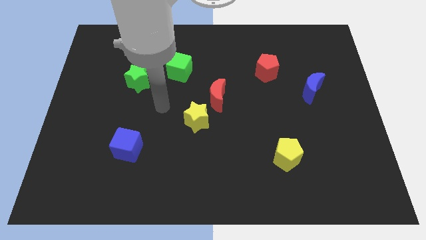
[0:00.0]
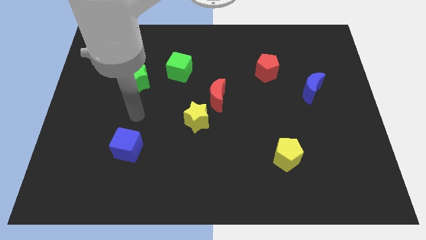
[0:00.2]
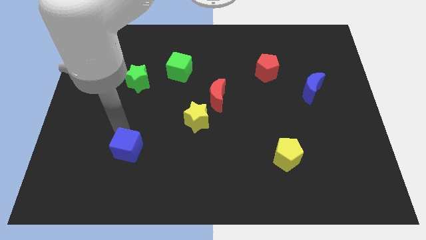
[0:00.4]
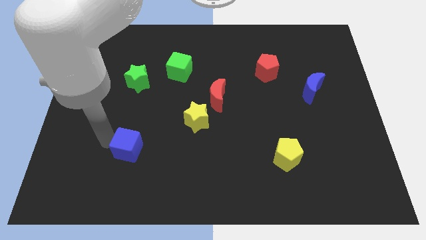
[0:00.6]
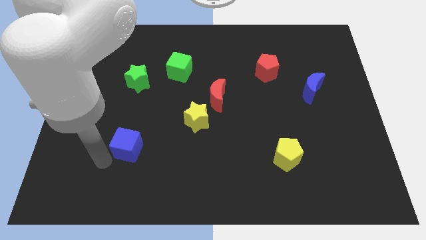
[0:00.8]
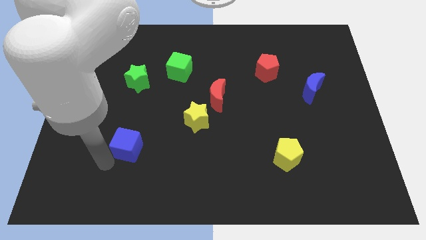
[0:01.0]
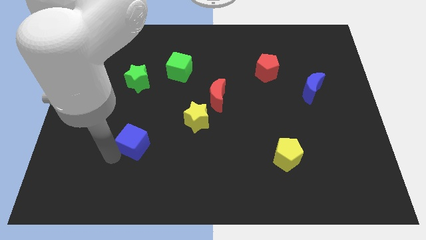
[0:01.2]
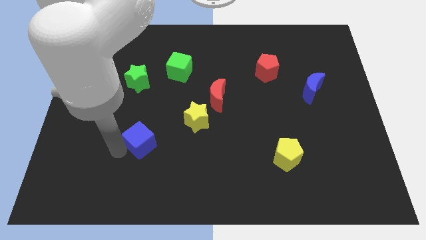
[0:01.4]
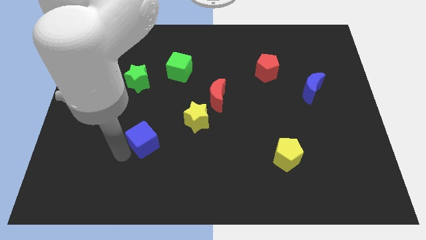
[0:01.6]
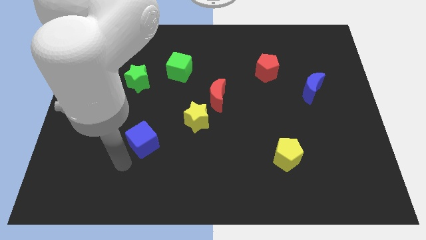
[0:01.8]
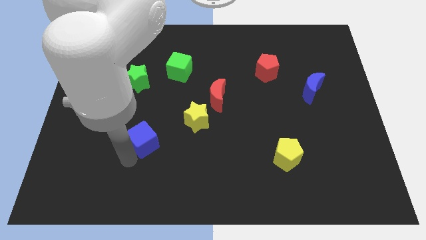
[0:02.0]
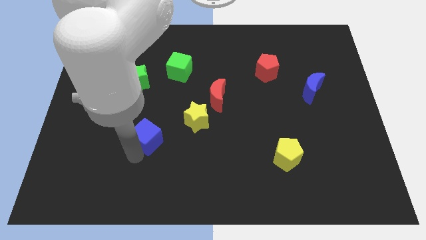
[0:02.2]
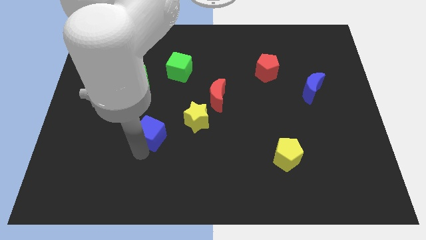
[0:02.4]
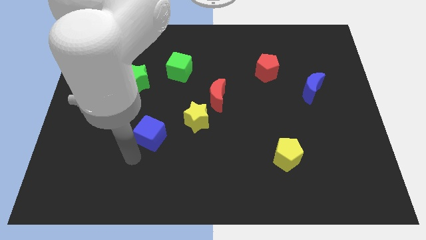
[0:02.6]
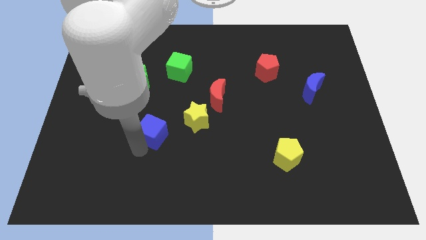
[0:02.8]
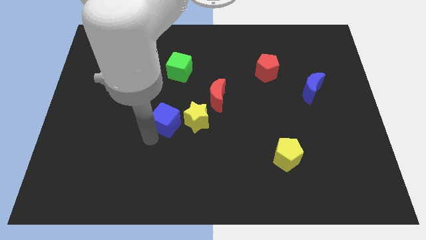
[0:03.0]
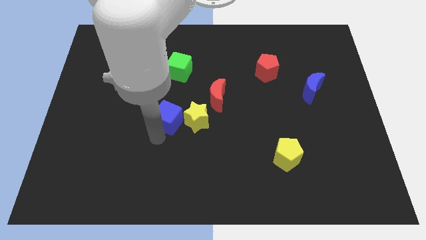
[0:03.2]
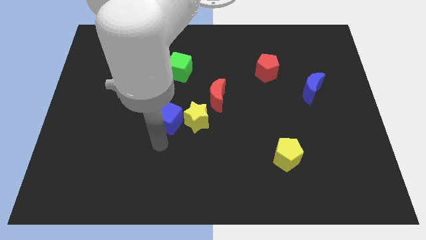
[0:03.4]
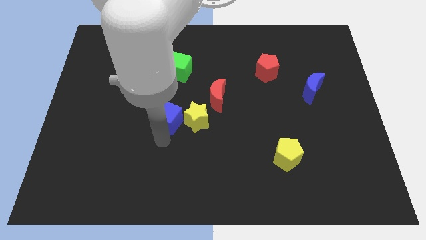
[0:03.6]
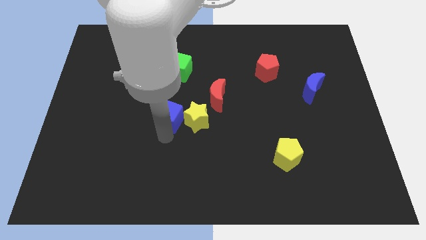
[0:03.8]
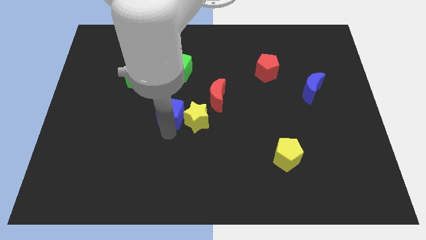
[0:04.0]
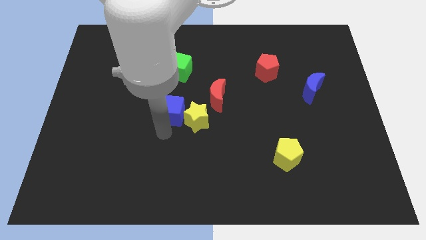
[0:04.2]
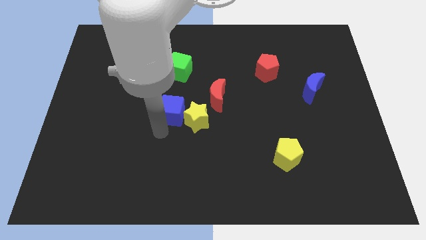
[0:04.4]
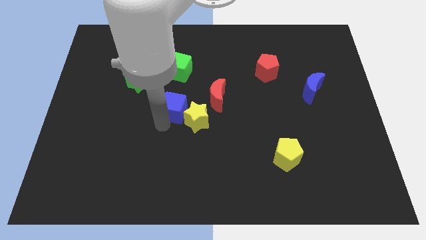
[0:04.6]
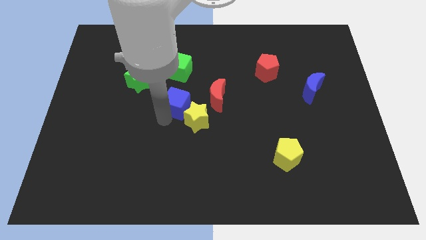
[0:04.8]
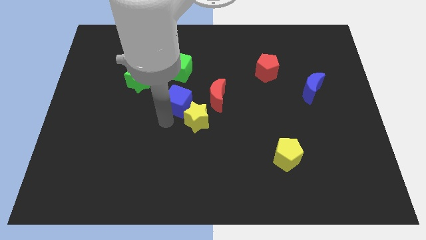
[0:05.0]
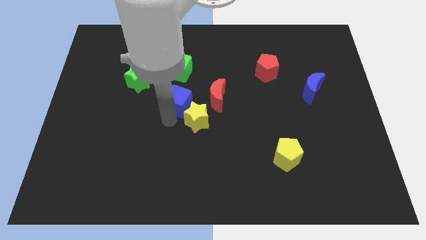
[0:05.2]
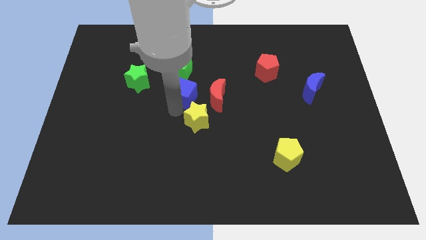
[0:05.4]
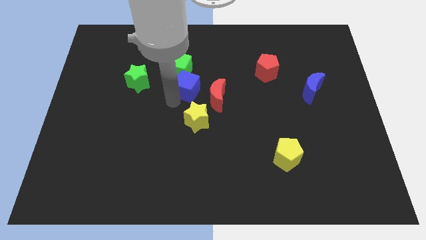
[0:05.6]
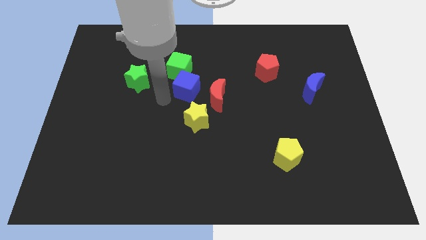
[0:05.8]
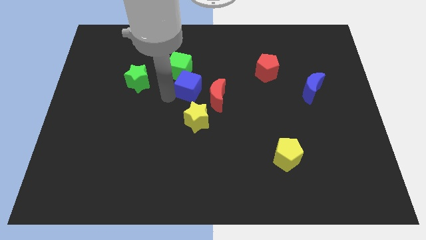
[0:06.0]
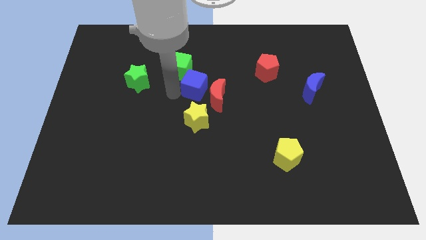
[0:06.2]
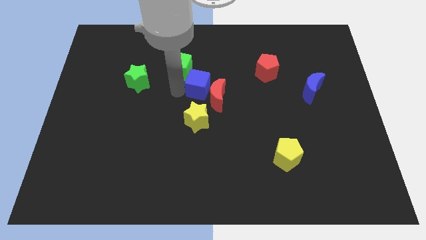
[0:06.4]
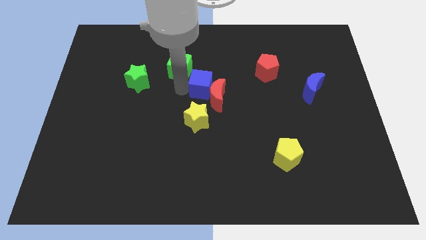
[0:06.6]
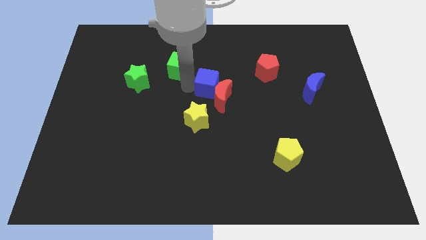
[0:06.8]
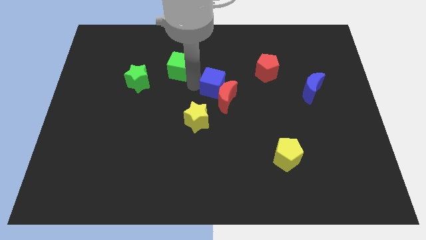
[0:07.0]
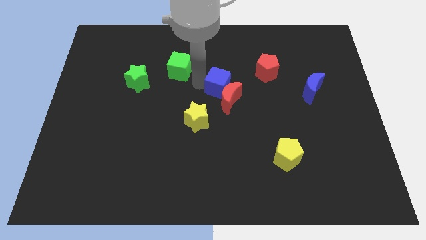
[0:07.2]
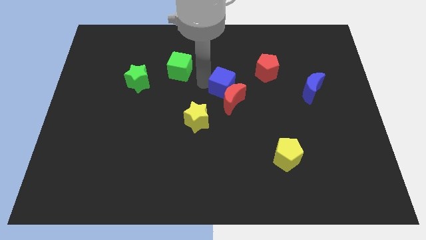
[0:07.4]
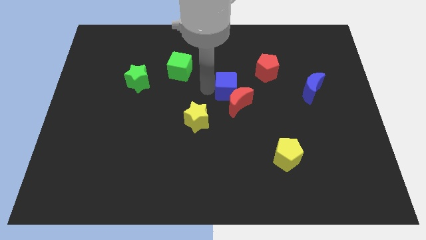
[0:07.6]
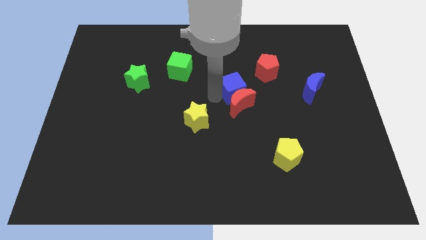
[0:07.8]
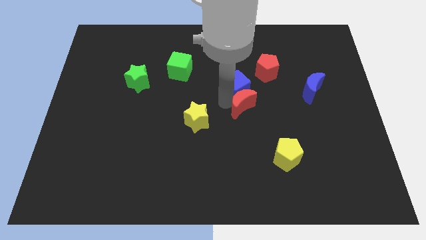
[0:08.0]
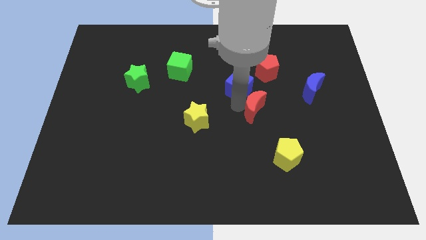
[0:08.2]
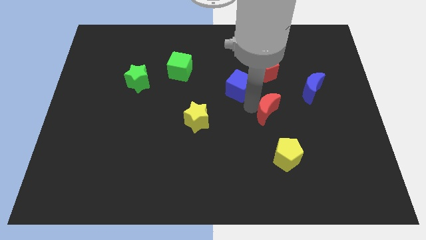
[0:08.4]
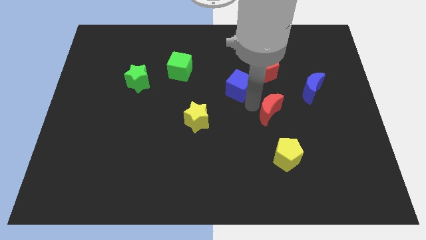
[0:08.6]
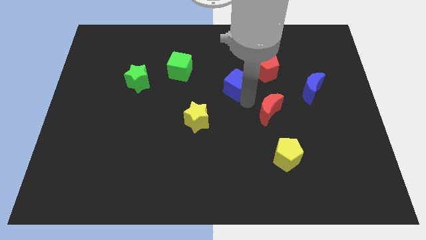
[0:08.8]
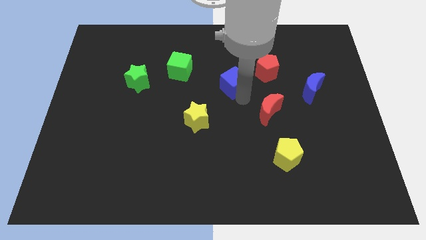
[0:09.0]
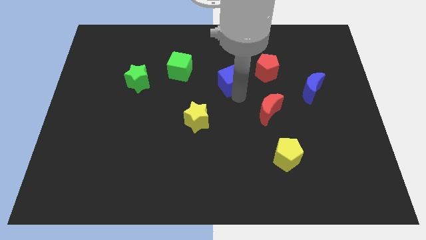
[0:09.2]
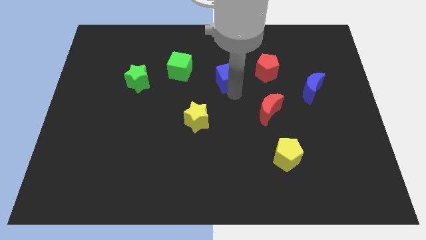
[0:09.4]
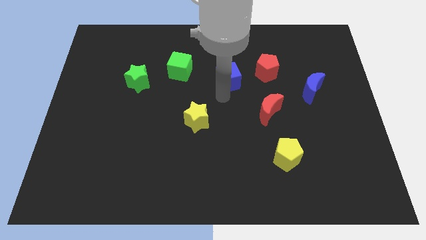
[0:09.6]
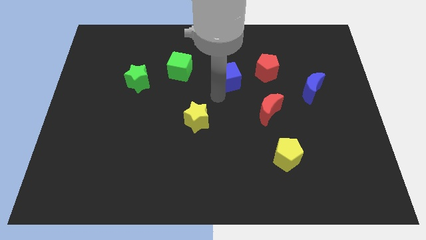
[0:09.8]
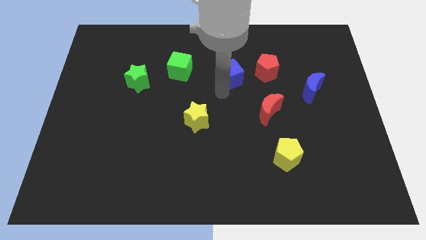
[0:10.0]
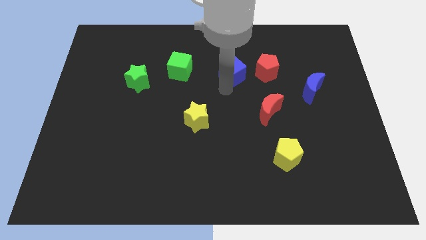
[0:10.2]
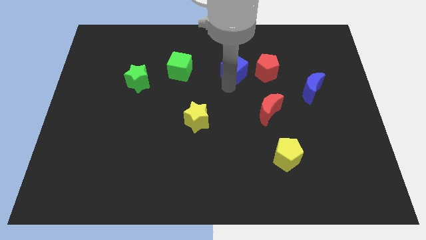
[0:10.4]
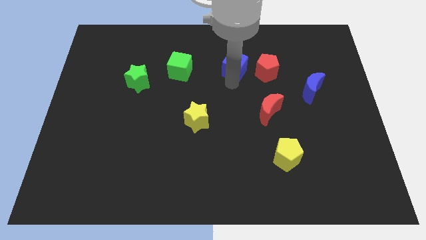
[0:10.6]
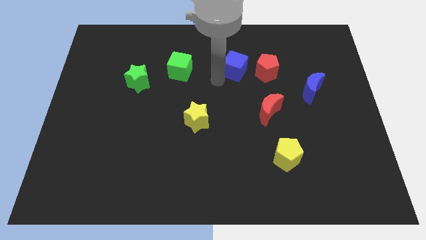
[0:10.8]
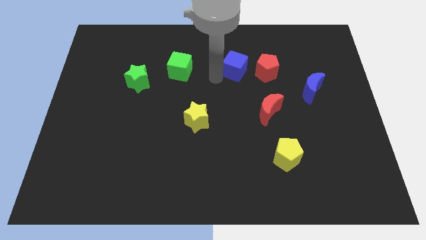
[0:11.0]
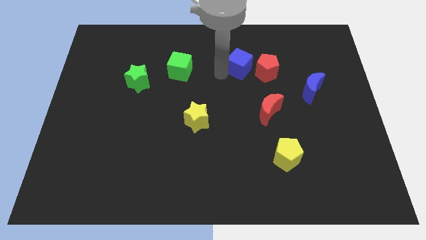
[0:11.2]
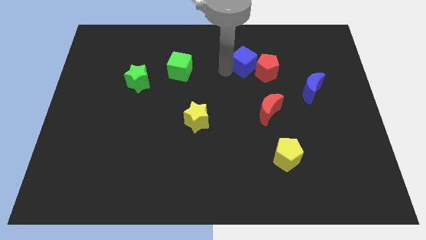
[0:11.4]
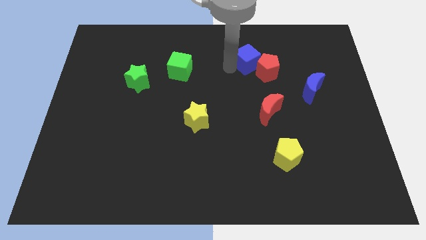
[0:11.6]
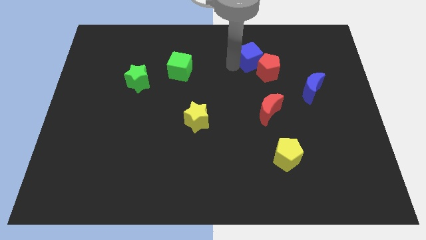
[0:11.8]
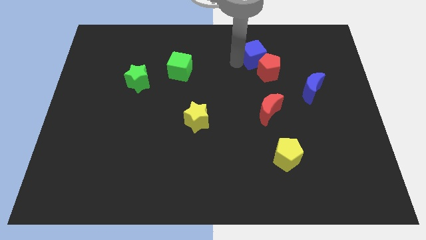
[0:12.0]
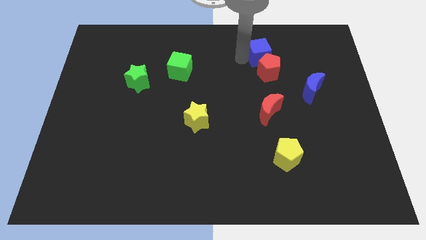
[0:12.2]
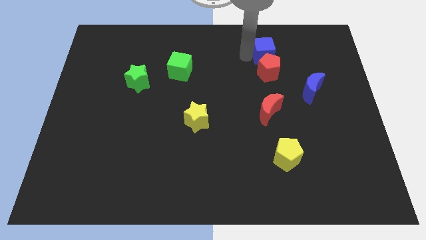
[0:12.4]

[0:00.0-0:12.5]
slide the blue cube to the top right of the red pentagon

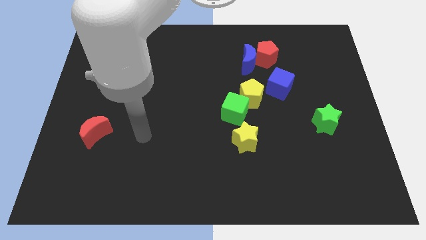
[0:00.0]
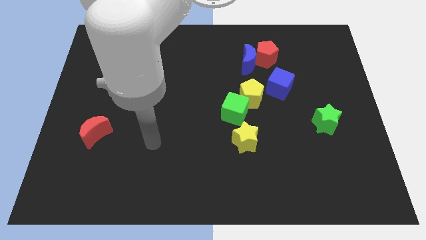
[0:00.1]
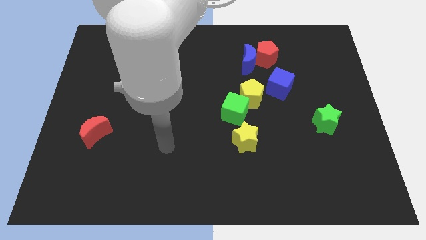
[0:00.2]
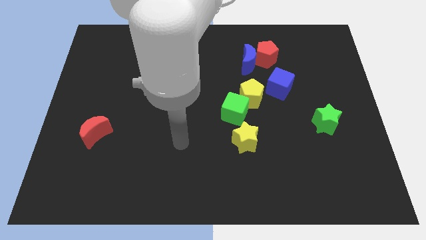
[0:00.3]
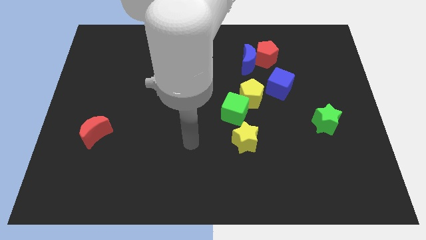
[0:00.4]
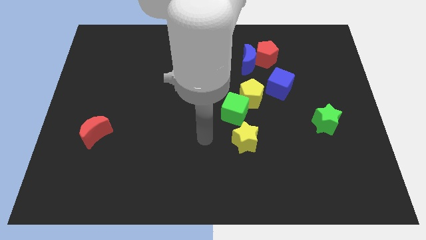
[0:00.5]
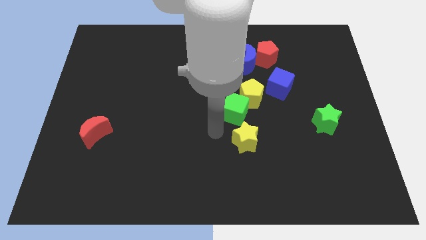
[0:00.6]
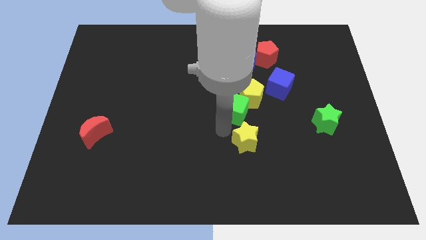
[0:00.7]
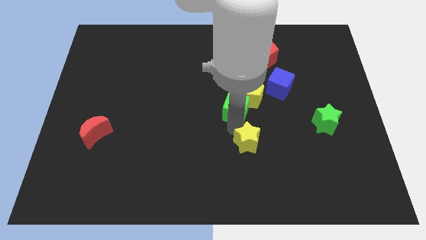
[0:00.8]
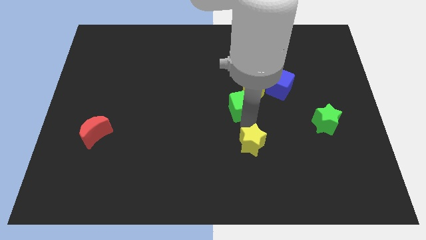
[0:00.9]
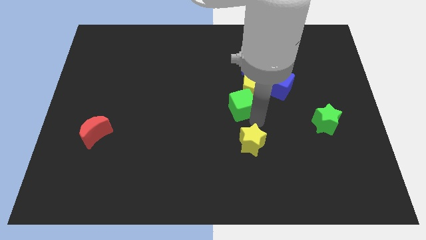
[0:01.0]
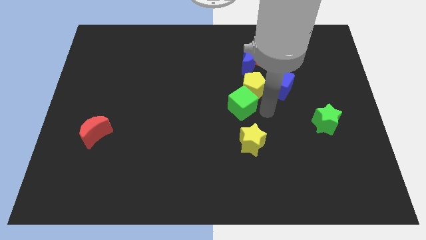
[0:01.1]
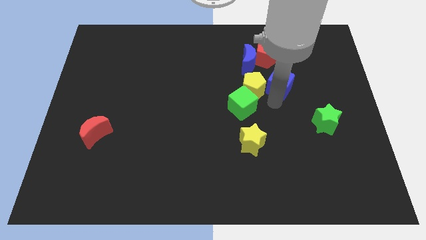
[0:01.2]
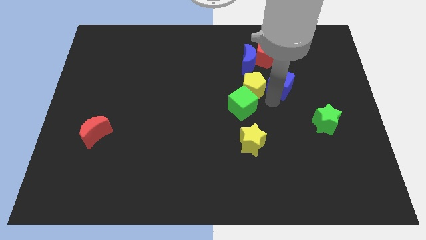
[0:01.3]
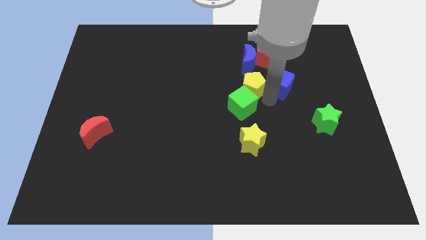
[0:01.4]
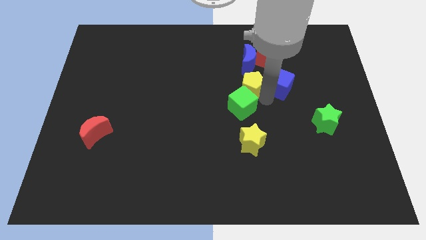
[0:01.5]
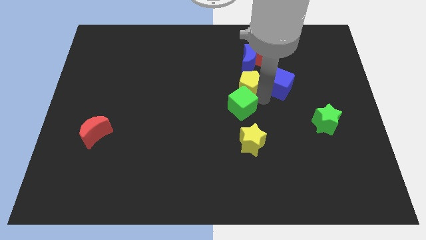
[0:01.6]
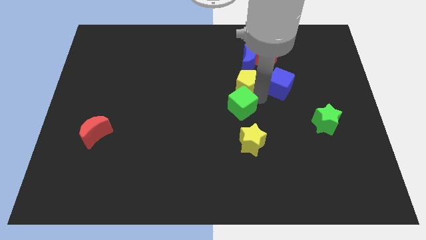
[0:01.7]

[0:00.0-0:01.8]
put the yellow pentagon diagonally down and to the left of the blue moon
